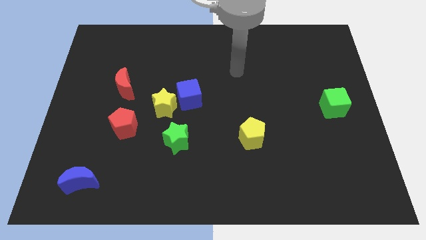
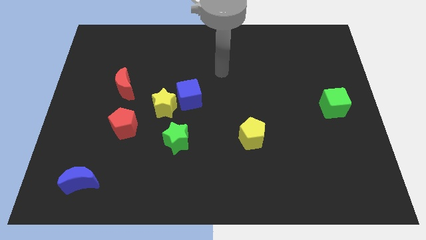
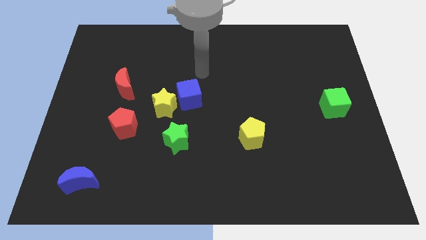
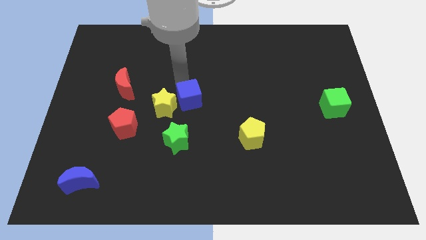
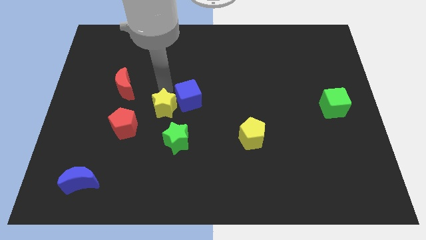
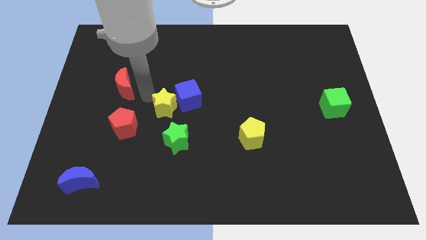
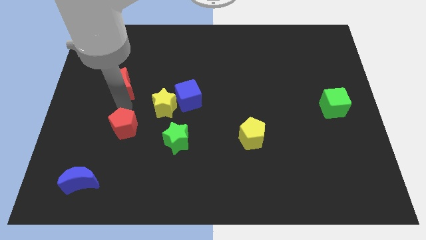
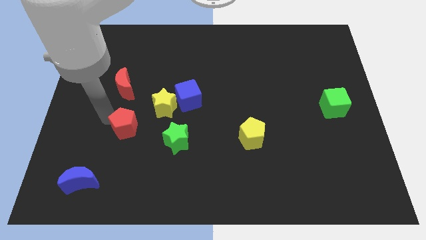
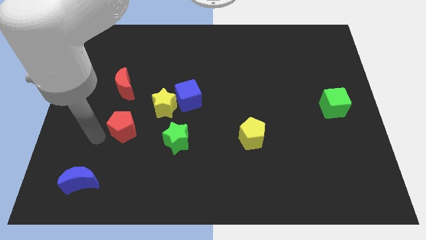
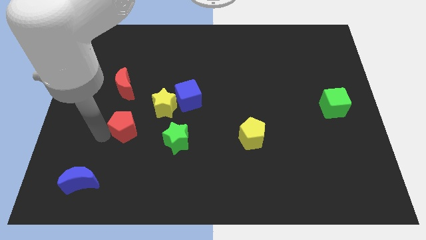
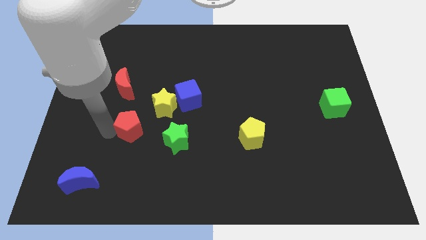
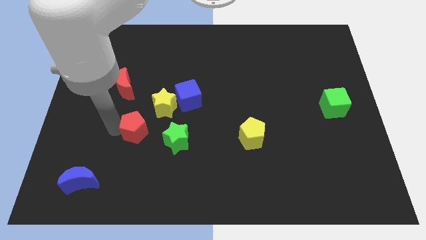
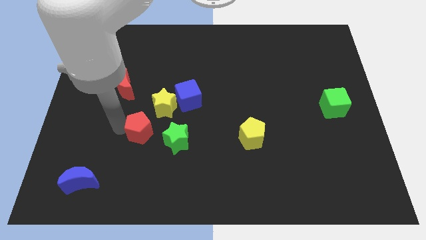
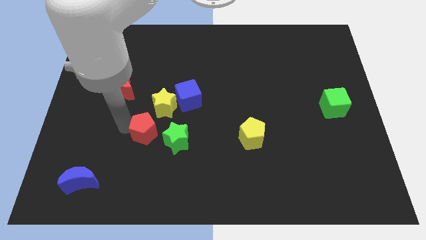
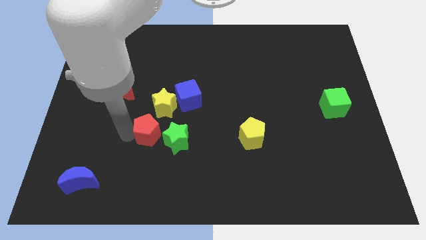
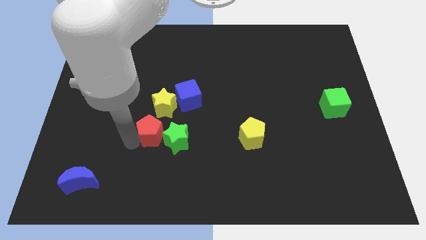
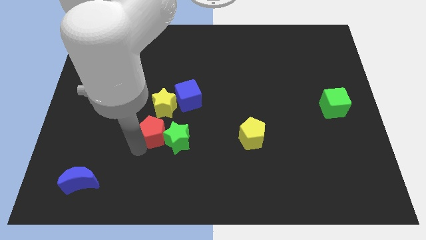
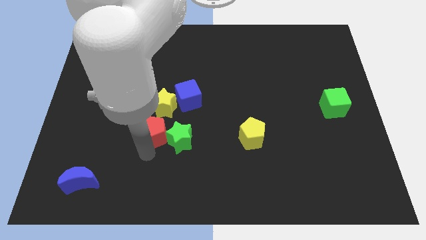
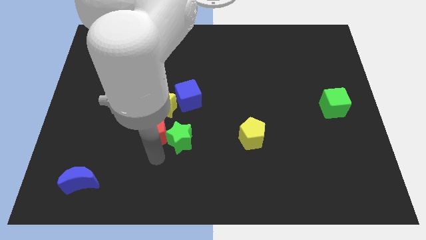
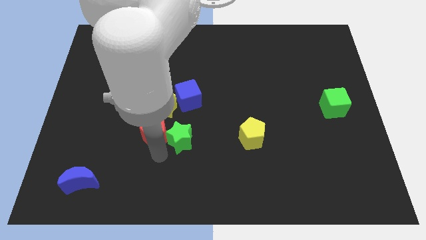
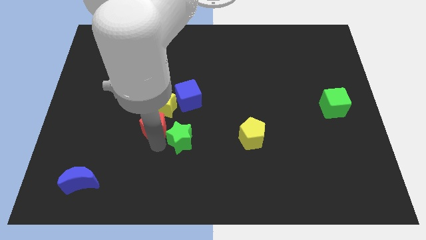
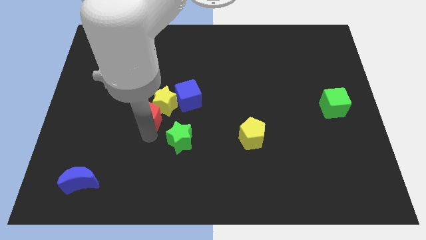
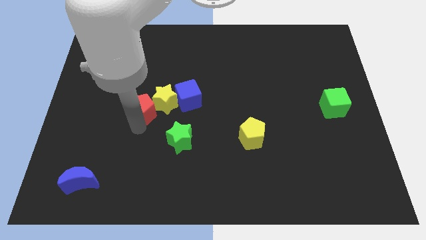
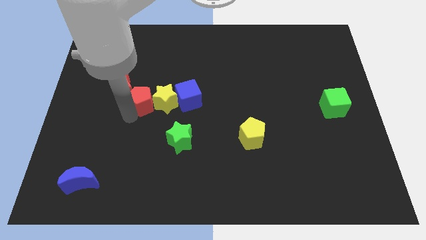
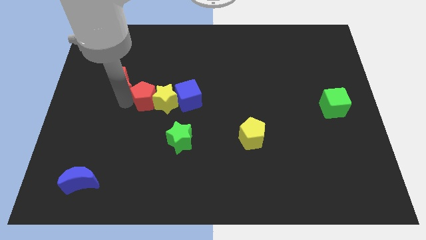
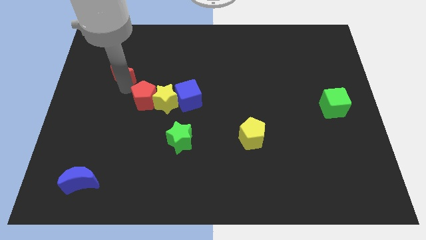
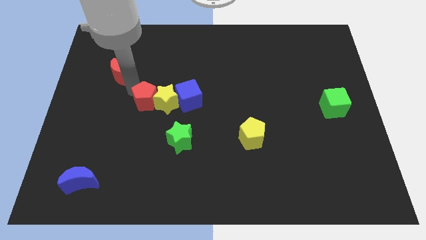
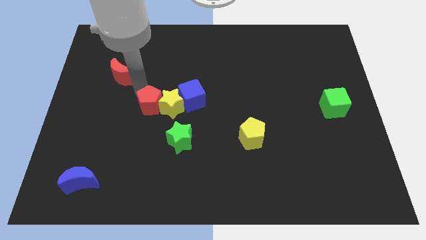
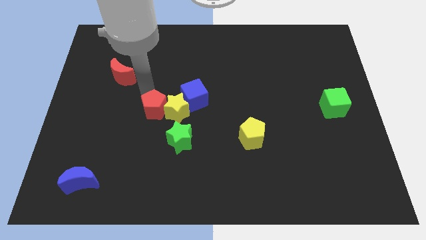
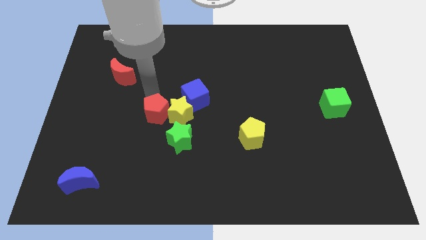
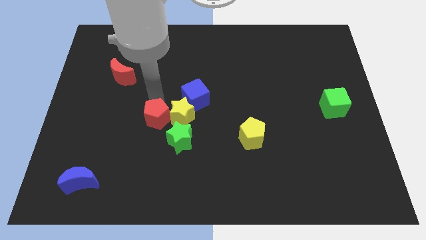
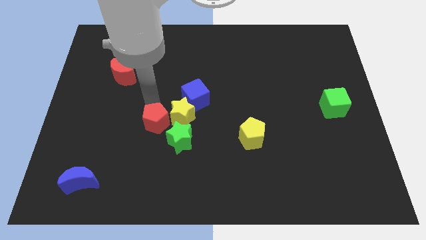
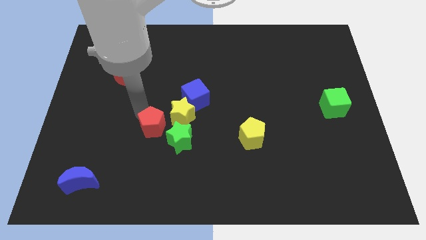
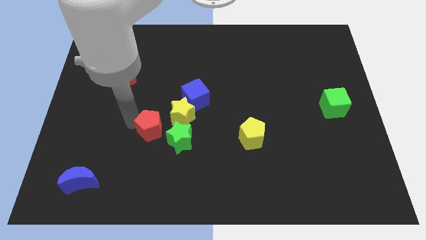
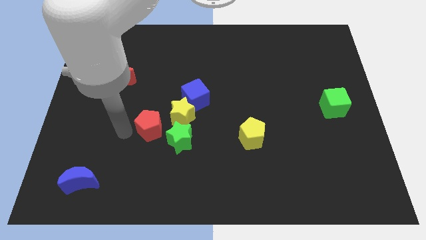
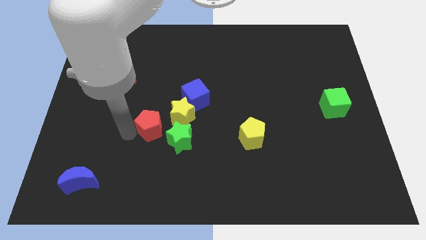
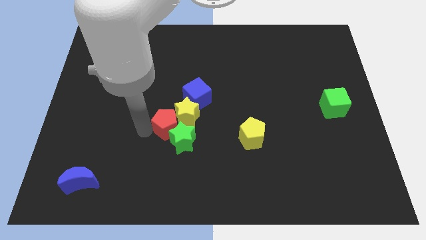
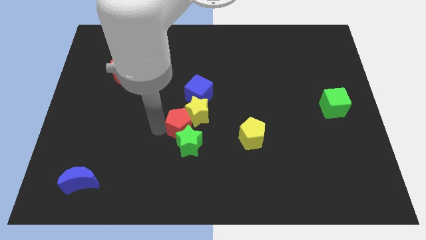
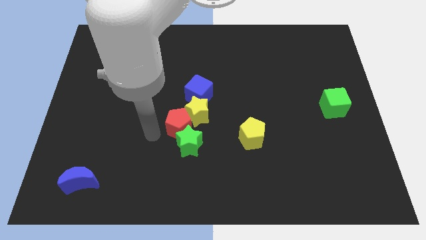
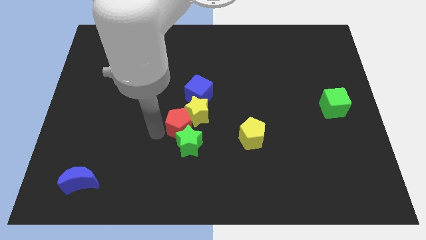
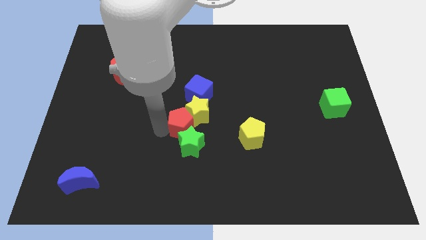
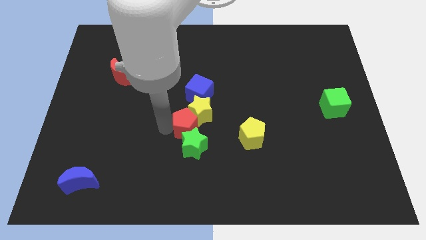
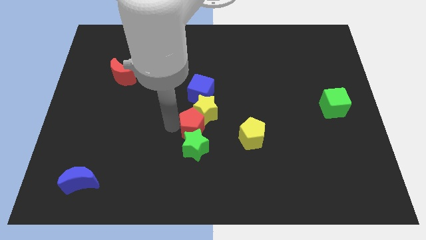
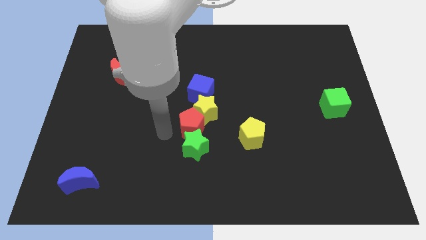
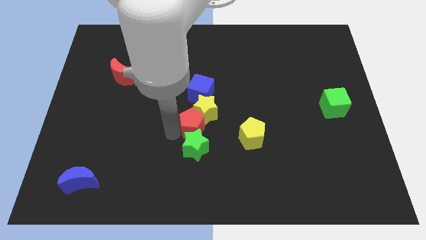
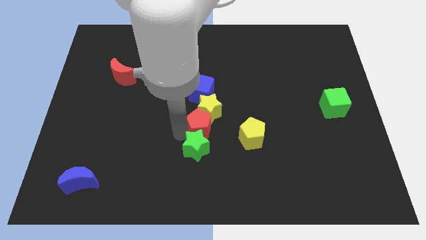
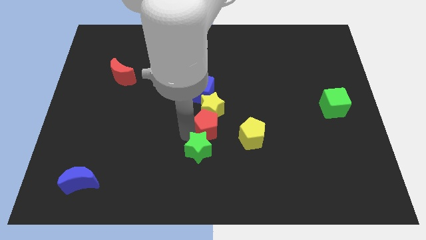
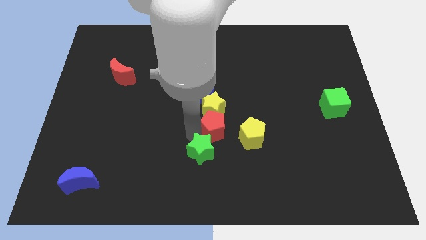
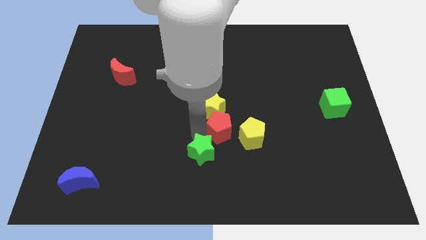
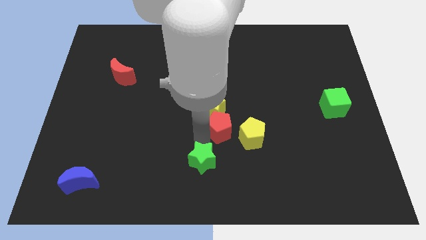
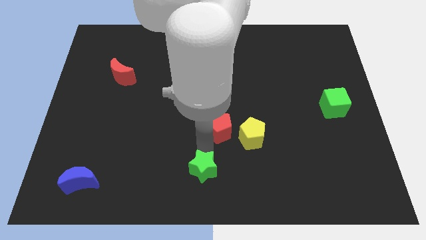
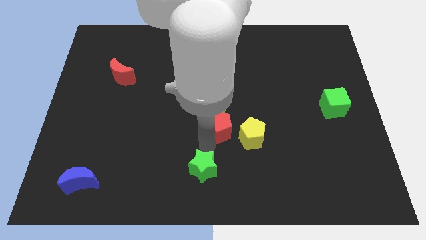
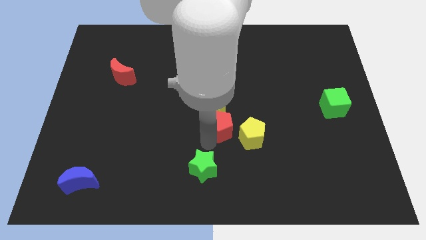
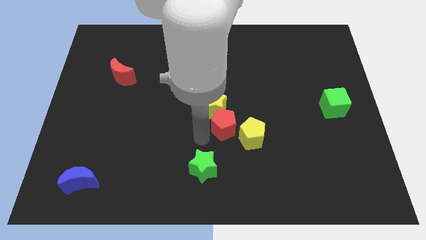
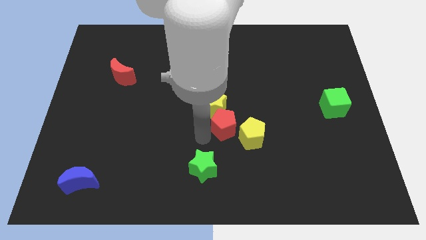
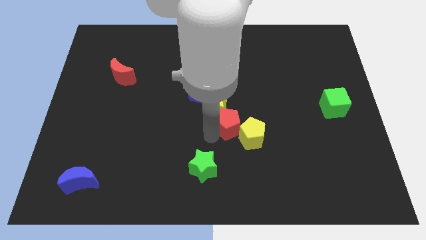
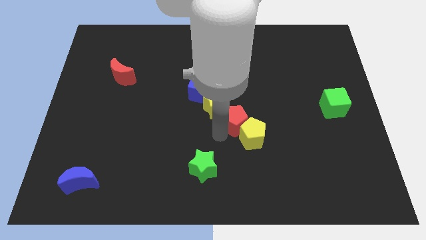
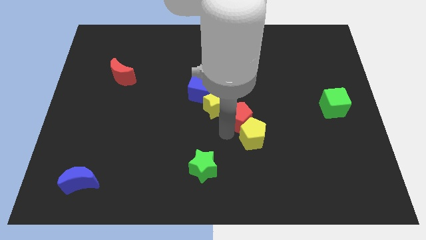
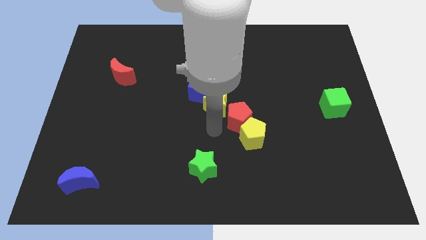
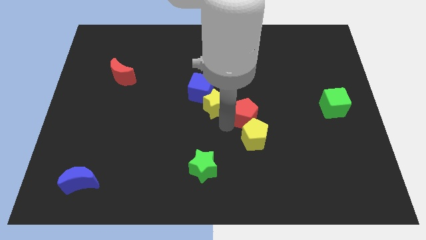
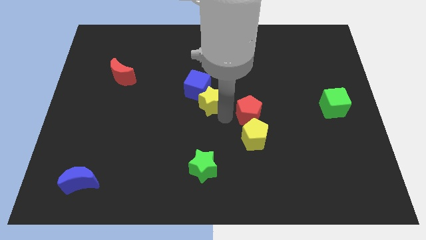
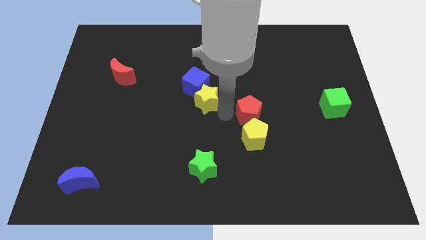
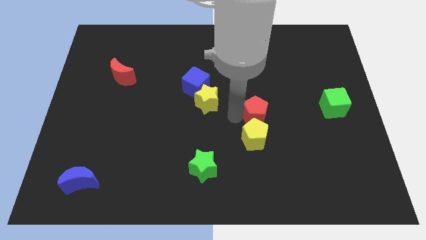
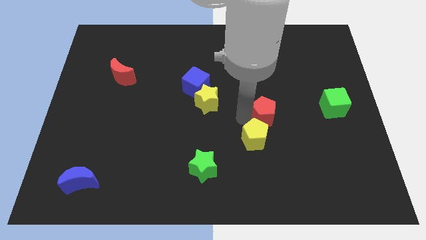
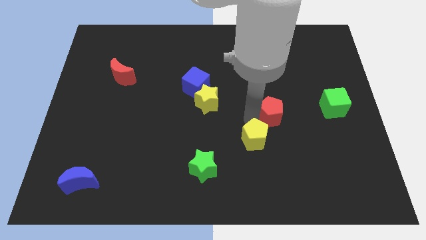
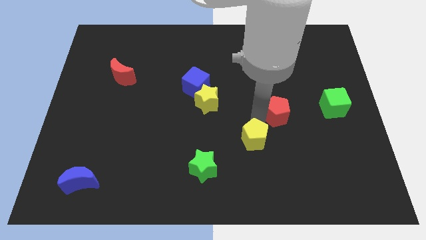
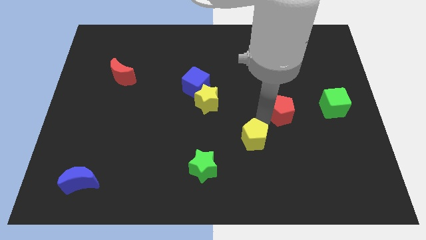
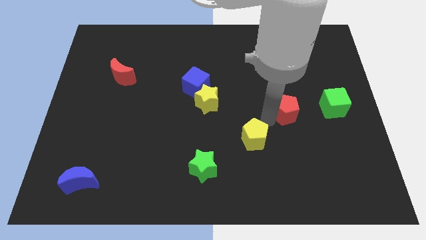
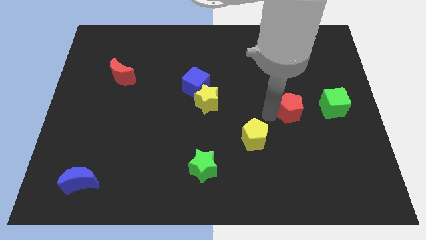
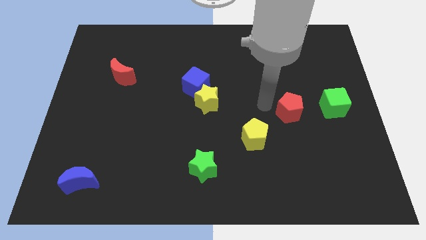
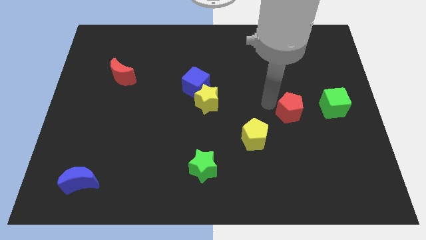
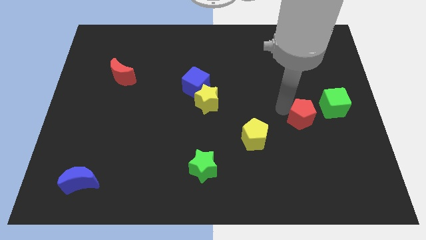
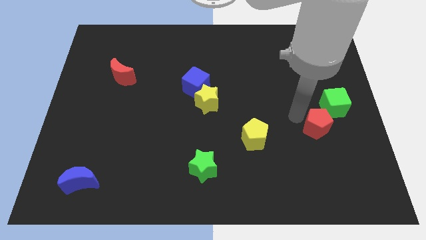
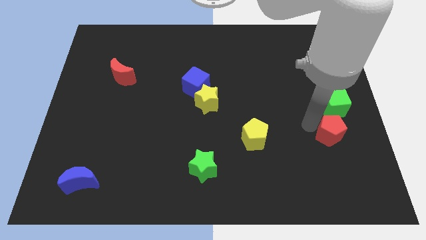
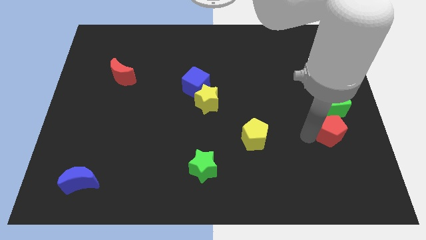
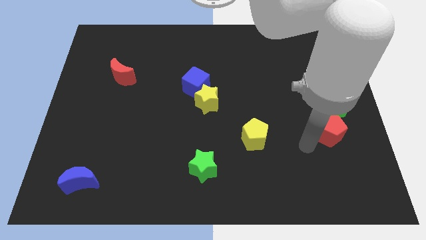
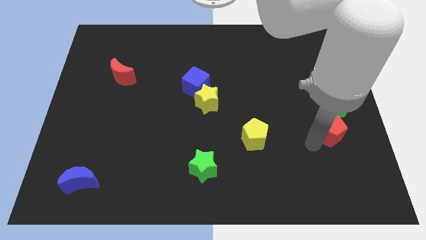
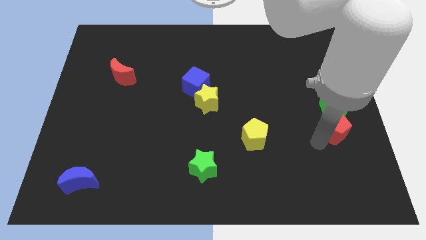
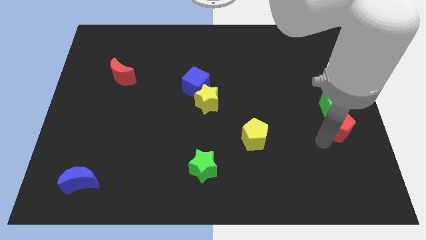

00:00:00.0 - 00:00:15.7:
move the red pentagon to the right side of the board
